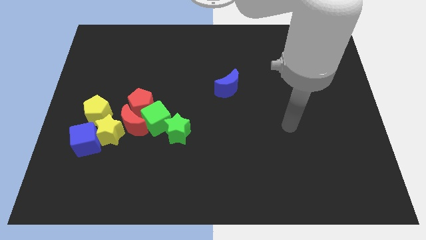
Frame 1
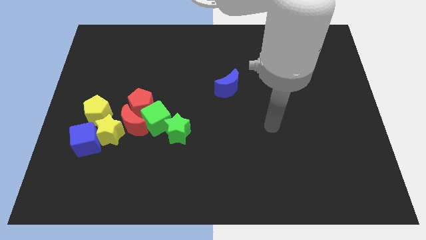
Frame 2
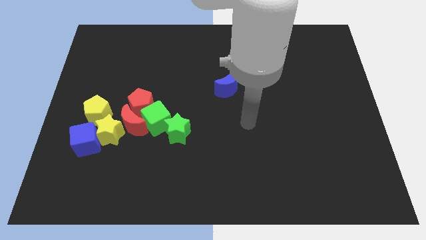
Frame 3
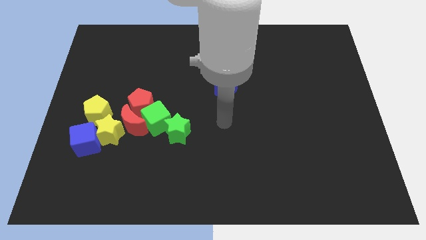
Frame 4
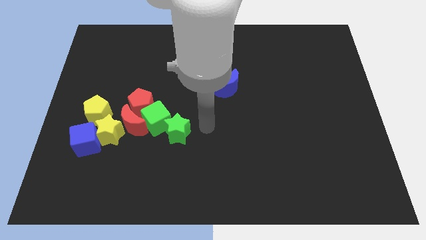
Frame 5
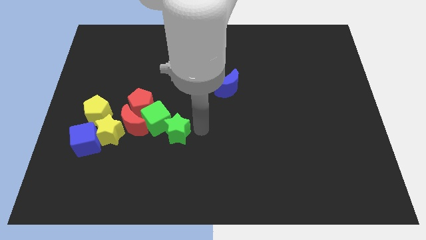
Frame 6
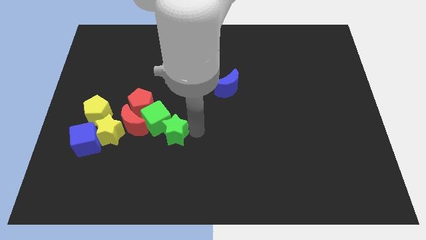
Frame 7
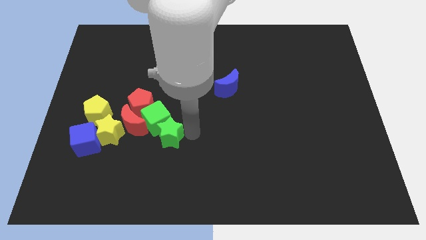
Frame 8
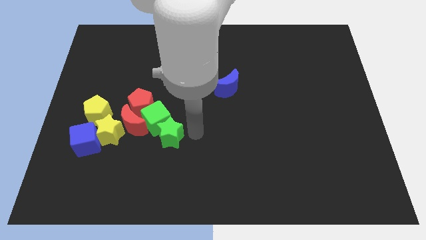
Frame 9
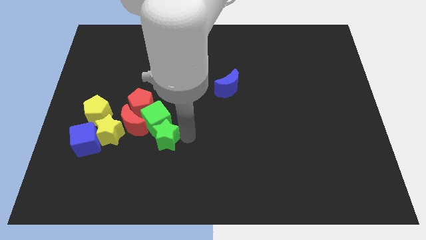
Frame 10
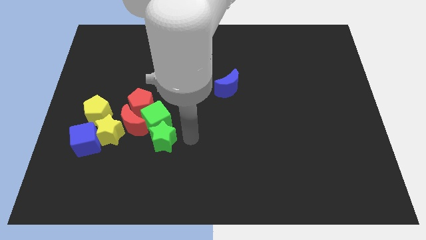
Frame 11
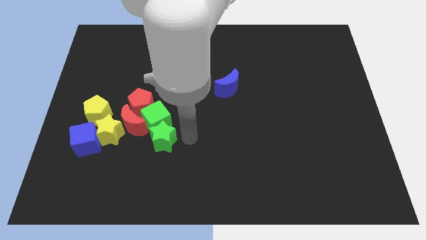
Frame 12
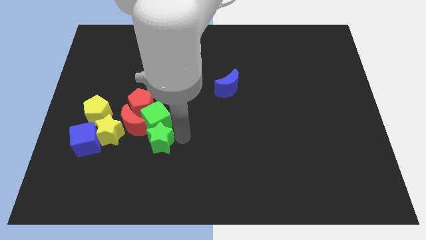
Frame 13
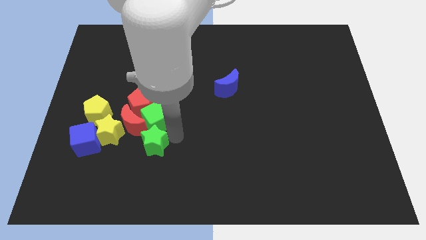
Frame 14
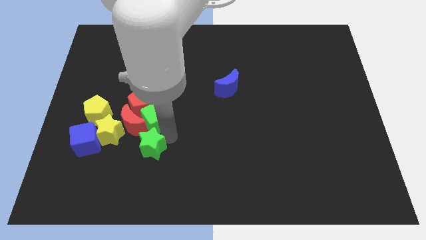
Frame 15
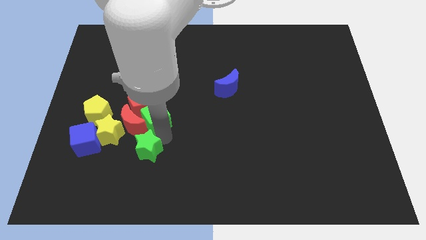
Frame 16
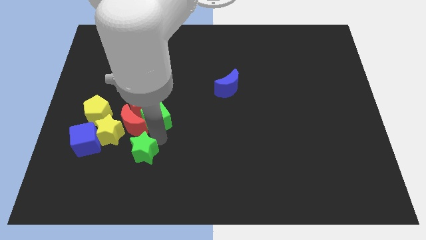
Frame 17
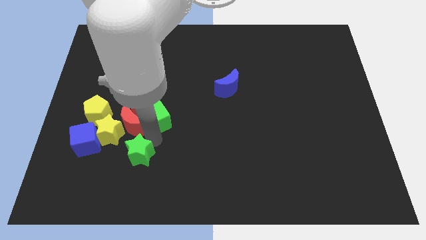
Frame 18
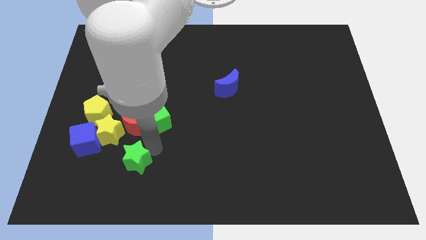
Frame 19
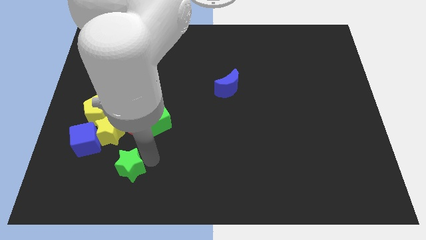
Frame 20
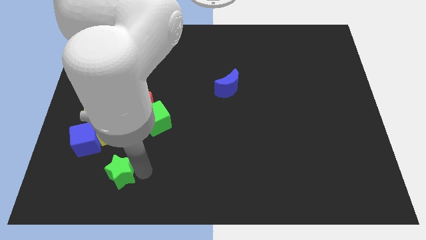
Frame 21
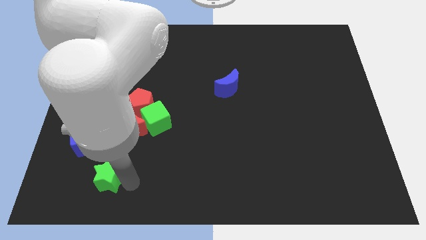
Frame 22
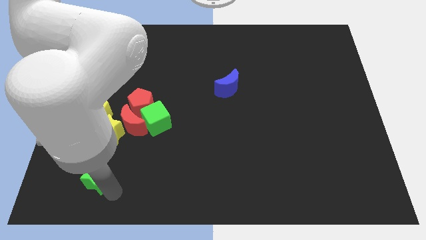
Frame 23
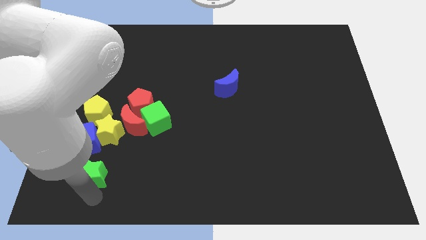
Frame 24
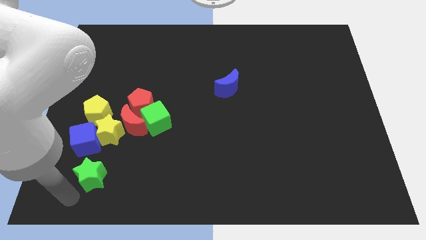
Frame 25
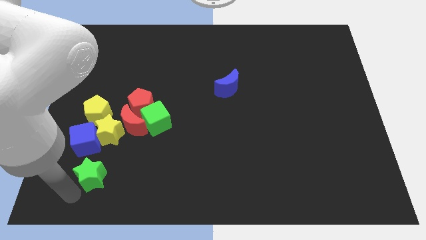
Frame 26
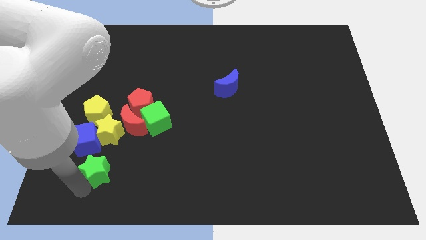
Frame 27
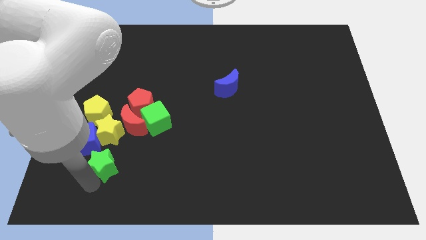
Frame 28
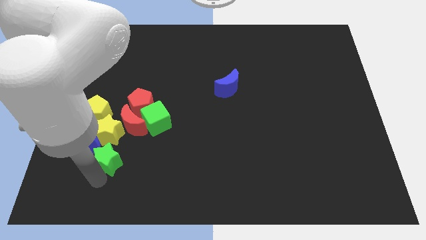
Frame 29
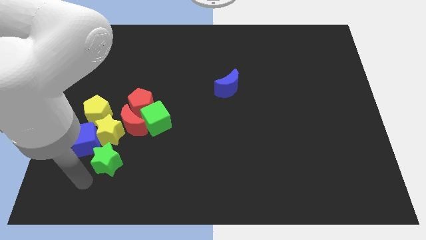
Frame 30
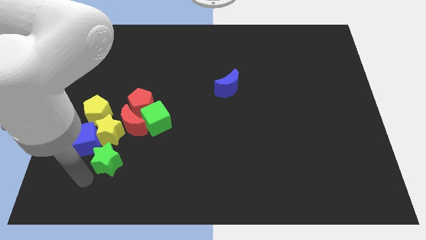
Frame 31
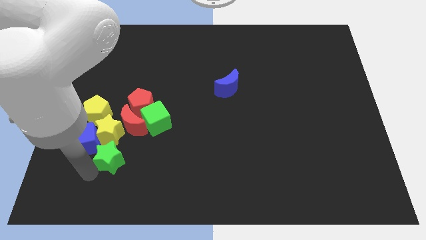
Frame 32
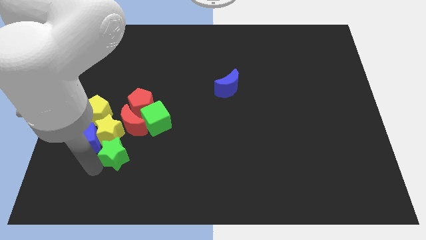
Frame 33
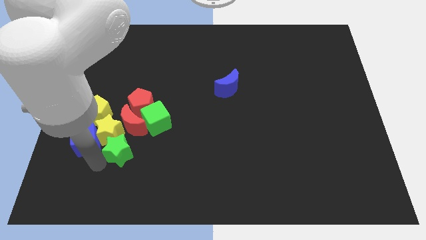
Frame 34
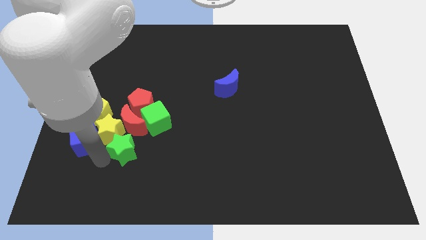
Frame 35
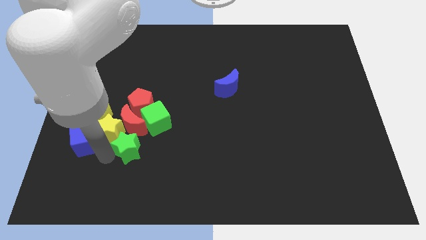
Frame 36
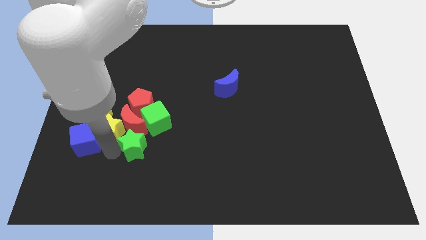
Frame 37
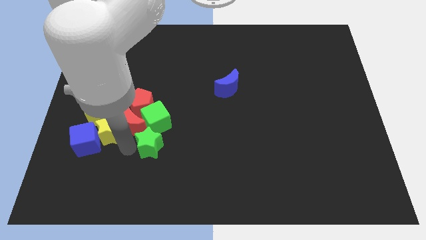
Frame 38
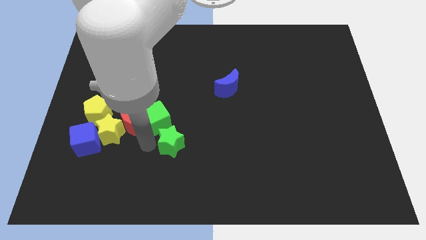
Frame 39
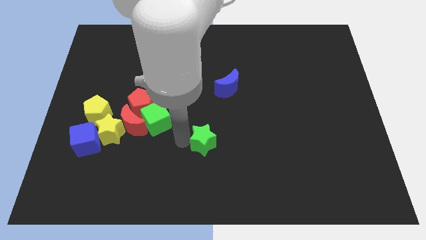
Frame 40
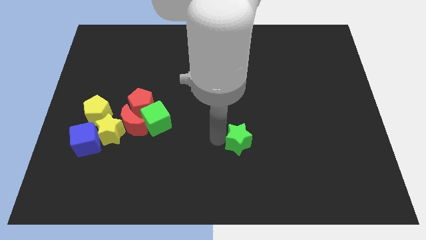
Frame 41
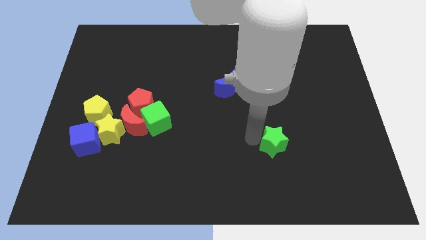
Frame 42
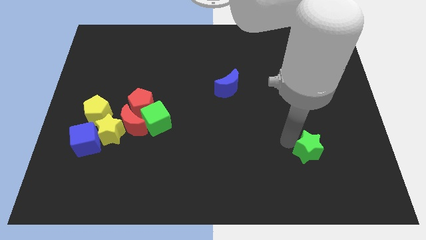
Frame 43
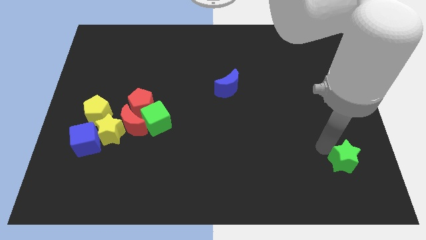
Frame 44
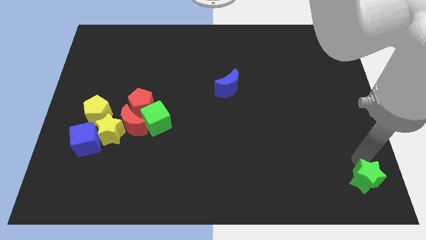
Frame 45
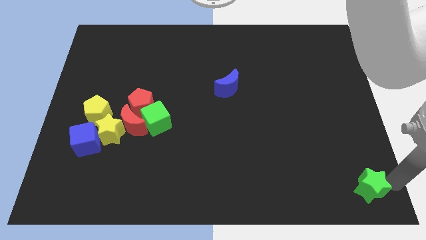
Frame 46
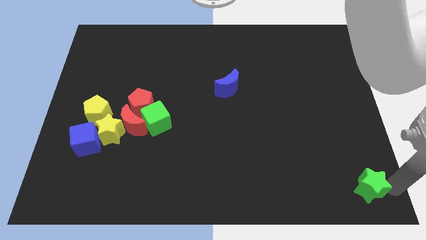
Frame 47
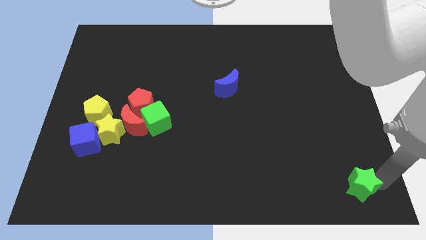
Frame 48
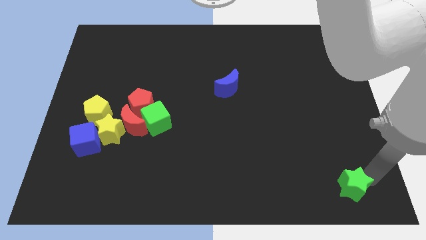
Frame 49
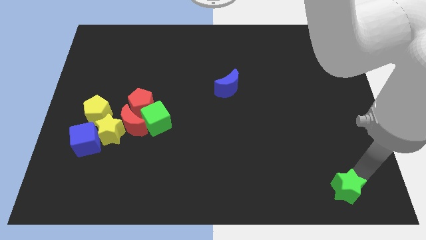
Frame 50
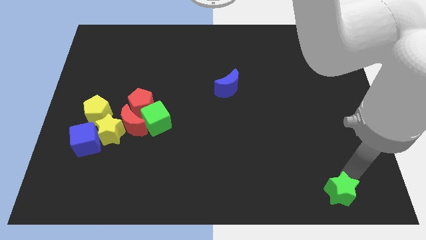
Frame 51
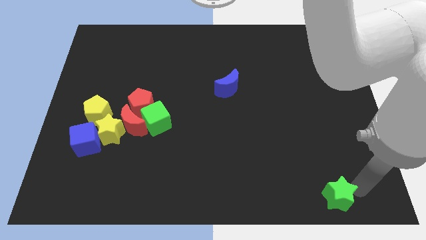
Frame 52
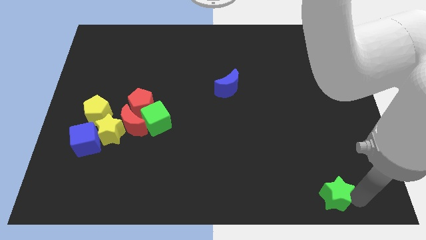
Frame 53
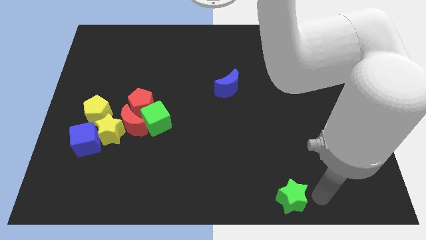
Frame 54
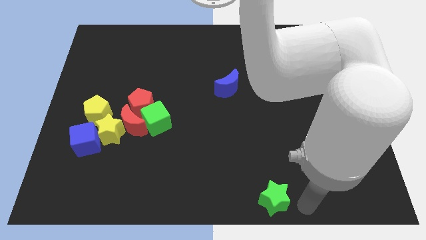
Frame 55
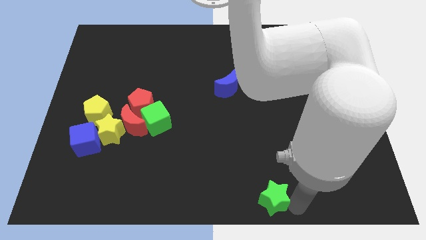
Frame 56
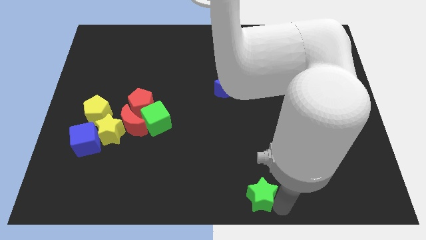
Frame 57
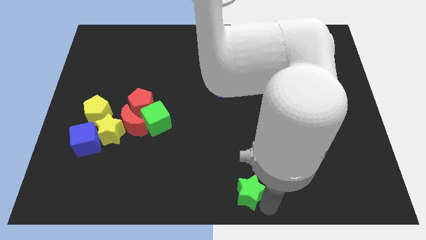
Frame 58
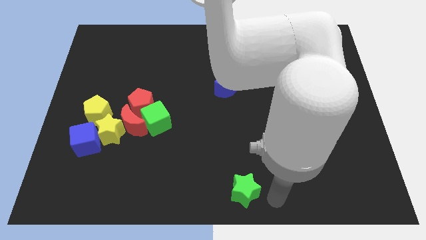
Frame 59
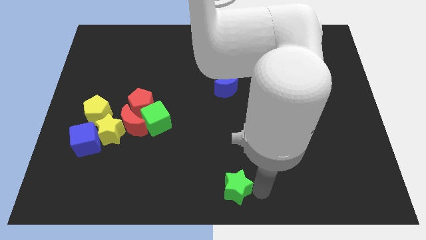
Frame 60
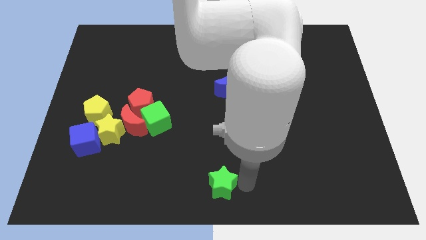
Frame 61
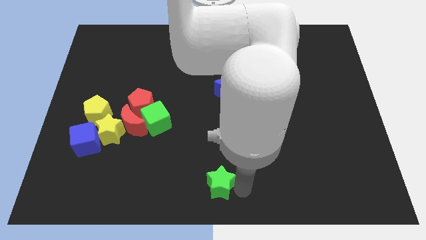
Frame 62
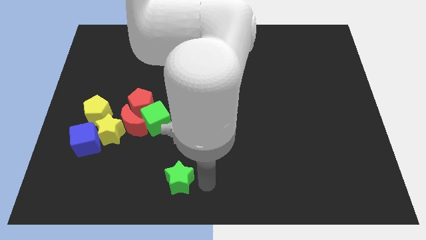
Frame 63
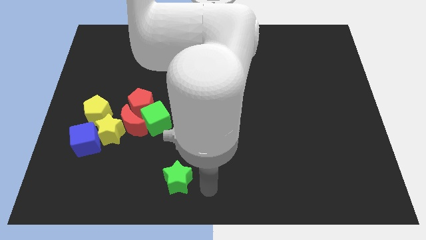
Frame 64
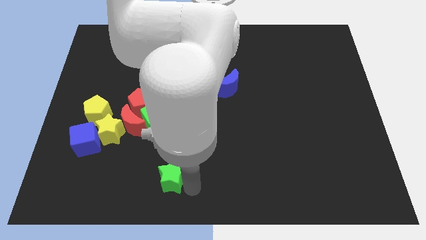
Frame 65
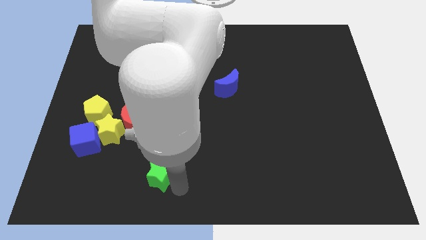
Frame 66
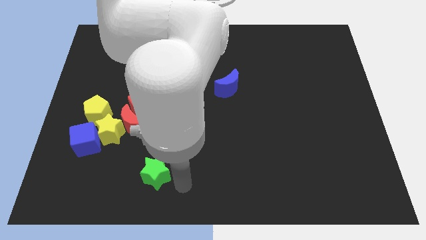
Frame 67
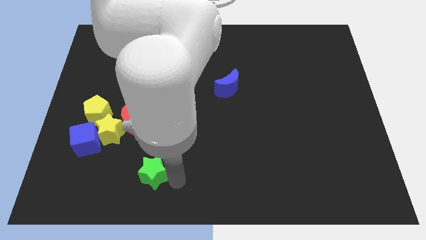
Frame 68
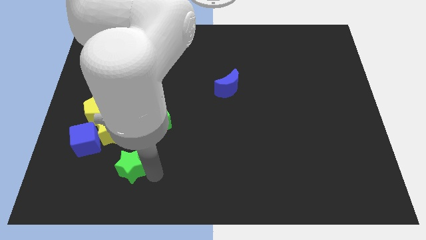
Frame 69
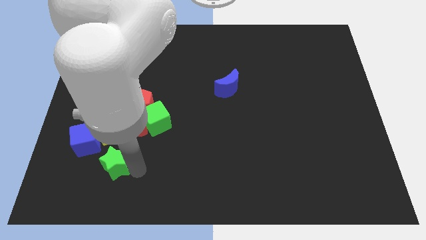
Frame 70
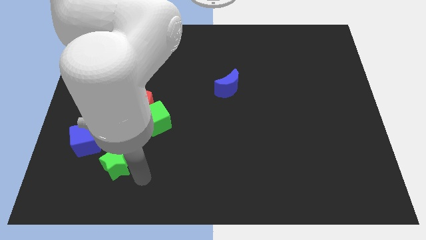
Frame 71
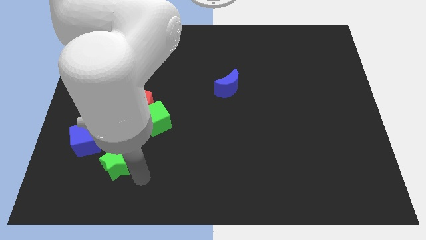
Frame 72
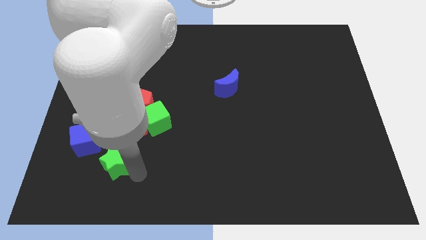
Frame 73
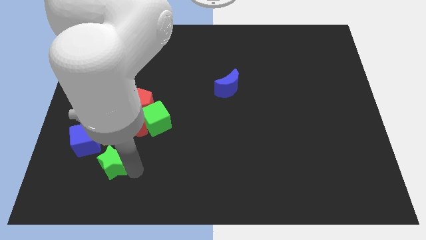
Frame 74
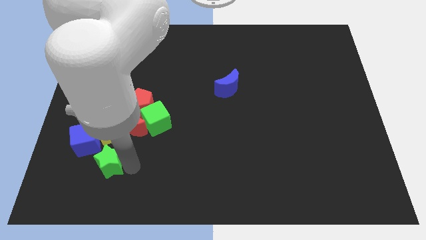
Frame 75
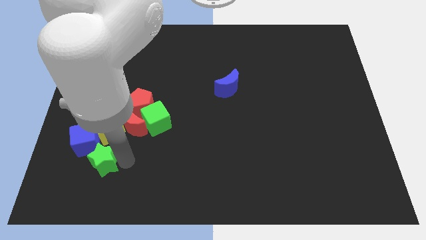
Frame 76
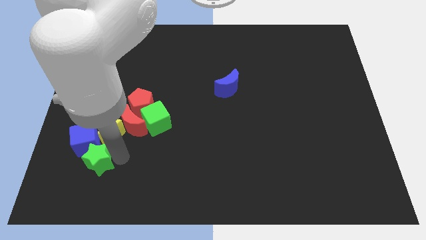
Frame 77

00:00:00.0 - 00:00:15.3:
move the green star towards the blue cube
